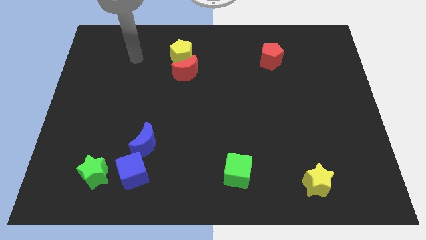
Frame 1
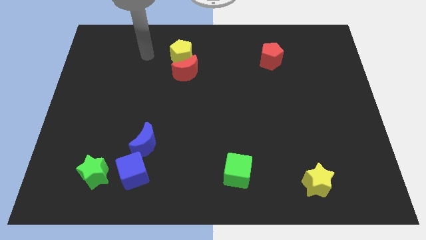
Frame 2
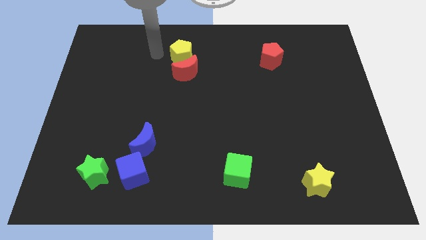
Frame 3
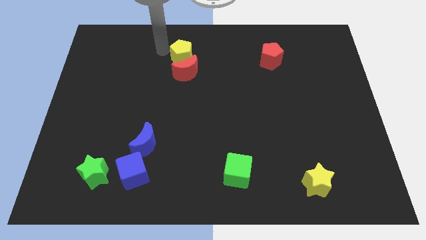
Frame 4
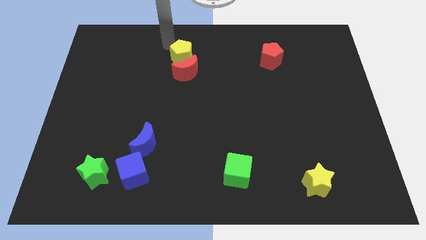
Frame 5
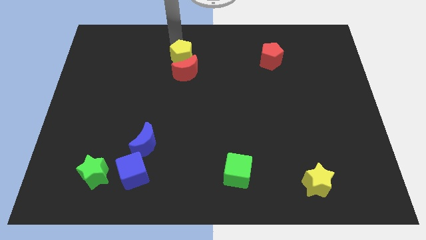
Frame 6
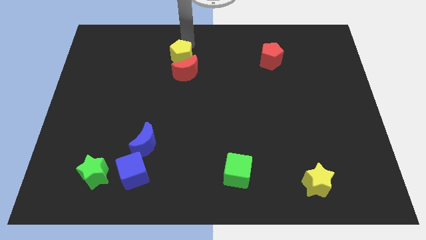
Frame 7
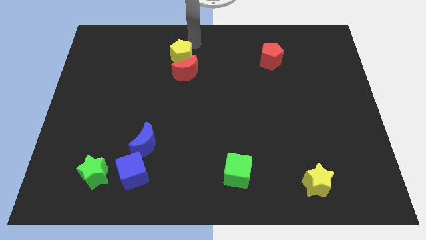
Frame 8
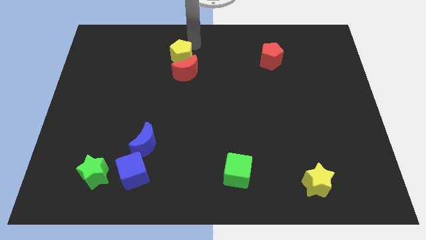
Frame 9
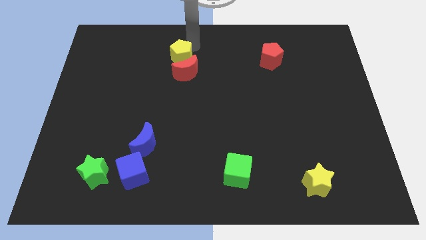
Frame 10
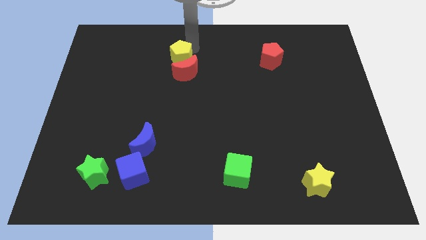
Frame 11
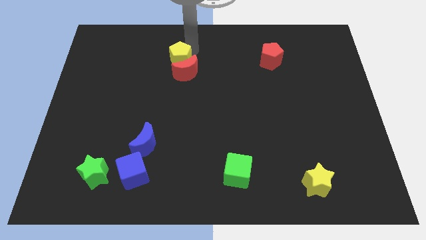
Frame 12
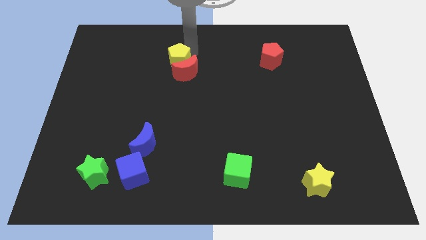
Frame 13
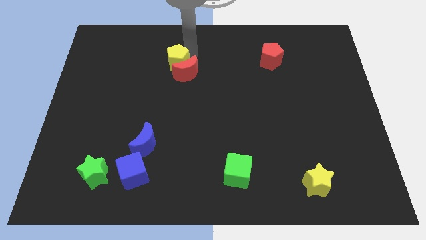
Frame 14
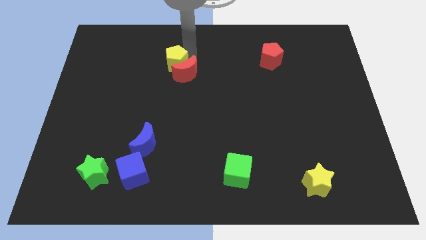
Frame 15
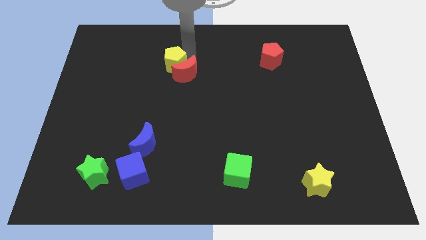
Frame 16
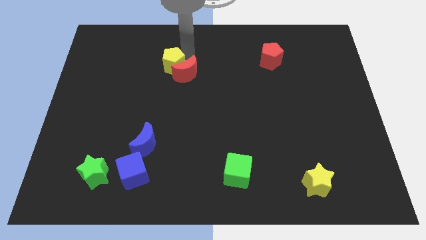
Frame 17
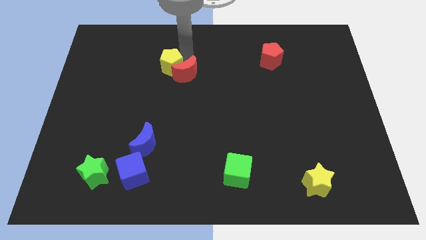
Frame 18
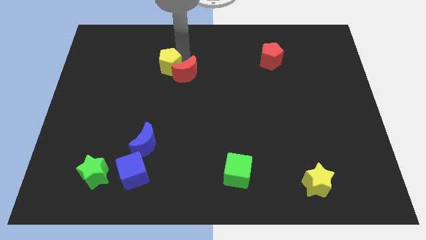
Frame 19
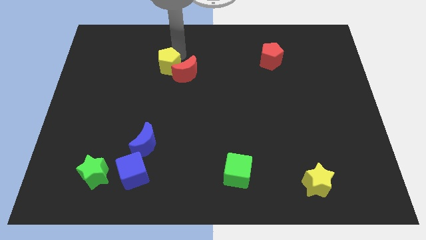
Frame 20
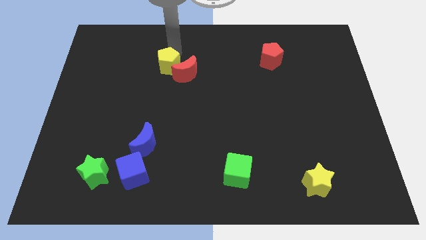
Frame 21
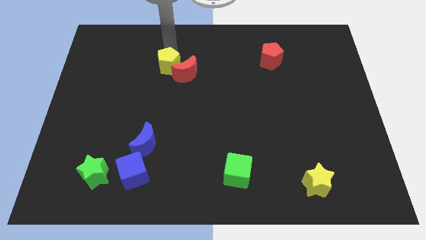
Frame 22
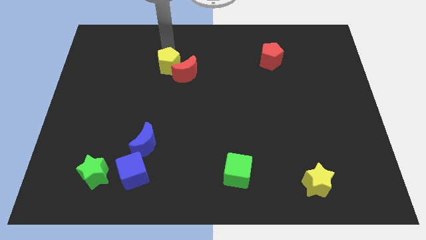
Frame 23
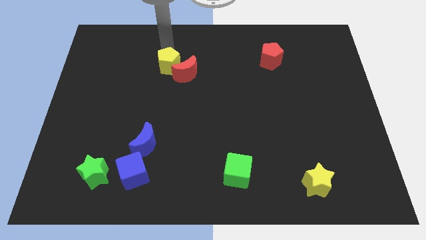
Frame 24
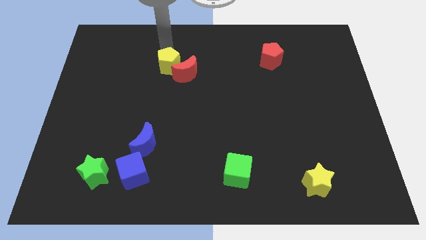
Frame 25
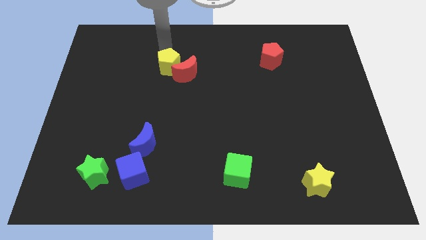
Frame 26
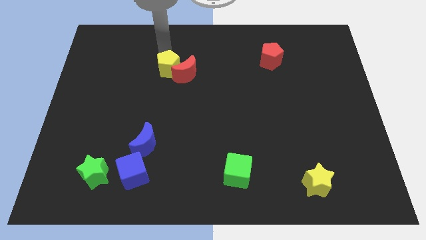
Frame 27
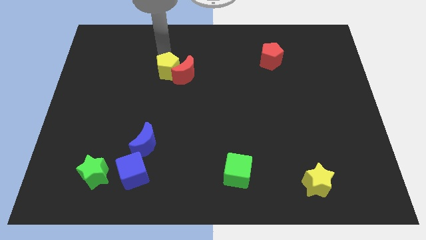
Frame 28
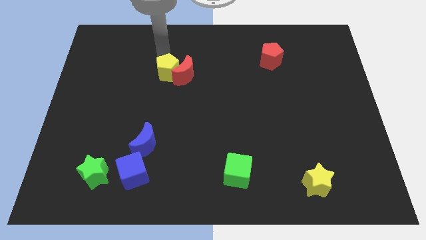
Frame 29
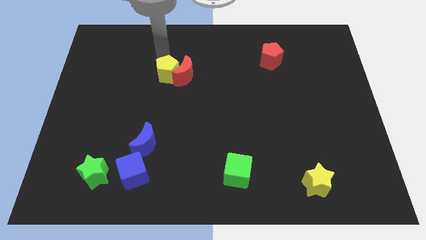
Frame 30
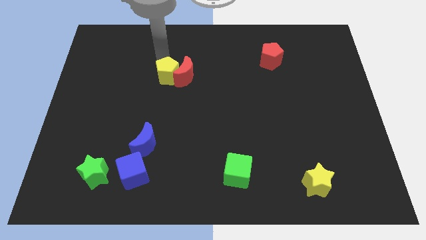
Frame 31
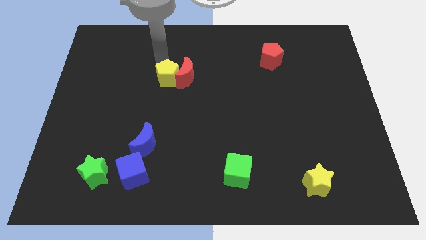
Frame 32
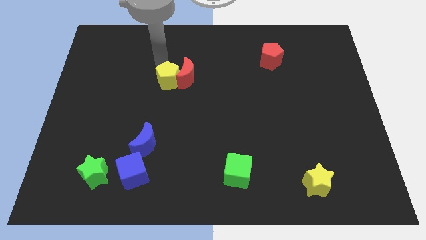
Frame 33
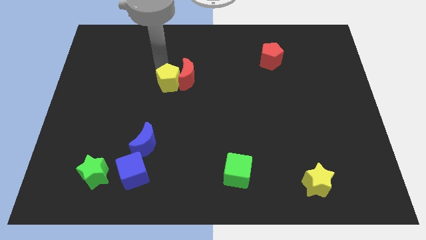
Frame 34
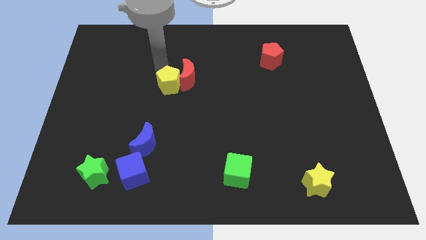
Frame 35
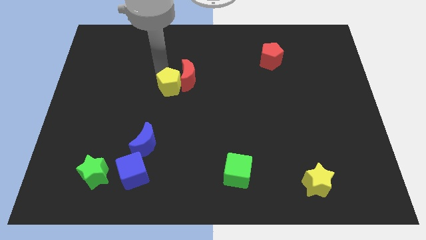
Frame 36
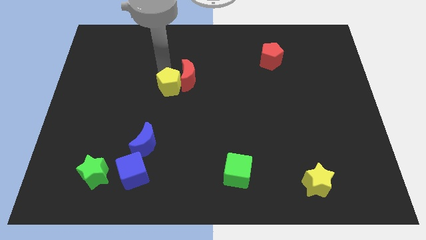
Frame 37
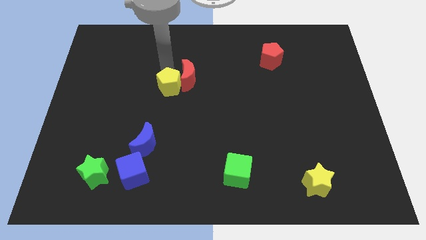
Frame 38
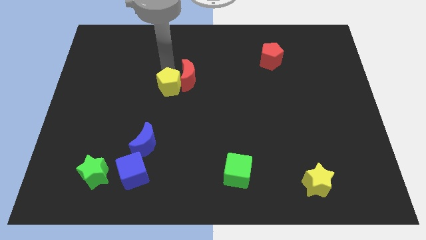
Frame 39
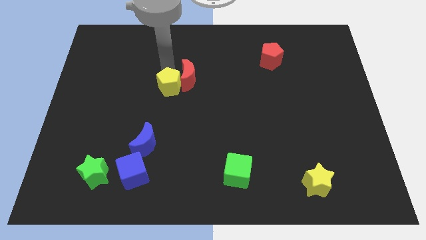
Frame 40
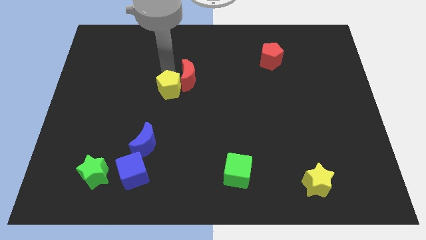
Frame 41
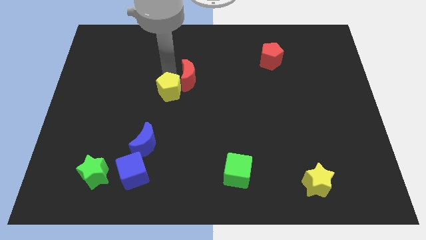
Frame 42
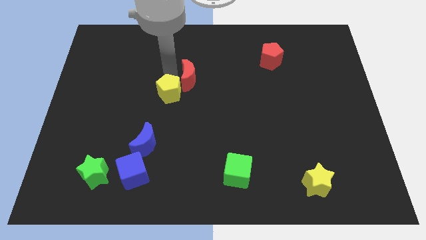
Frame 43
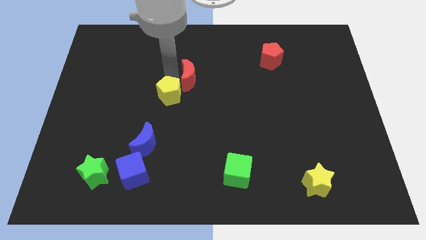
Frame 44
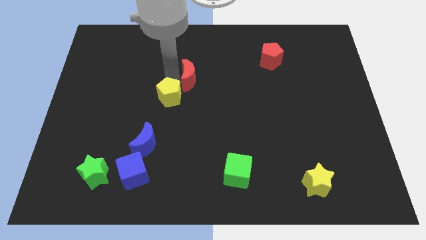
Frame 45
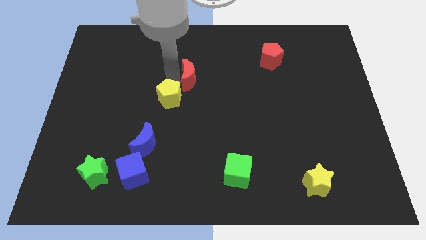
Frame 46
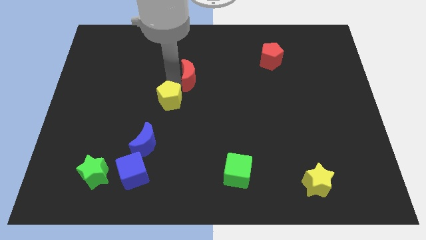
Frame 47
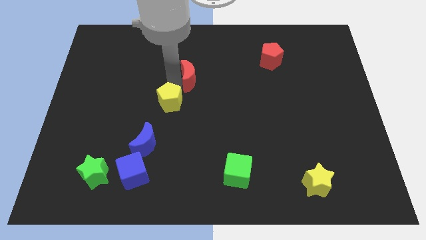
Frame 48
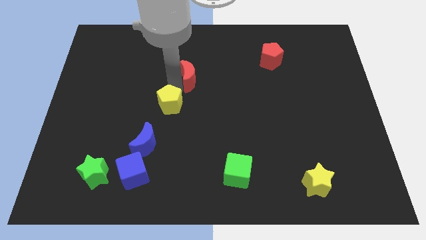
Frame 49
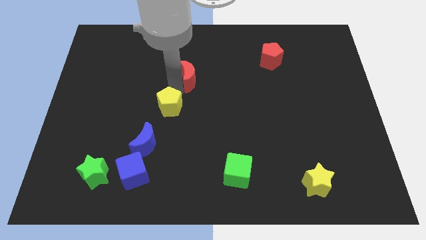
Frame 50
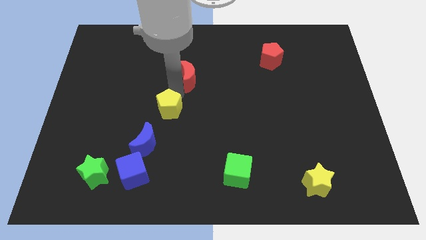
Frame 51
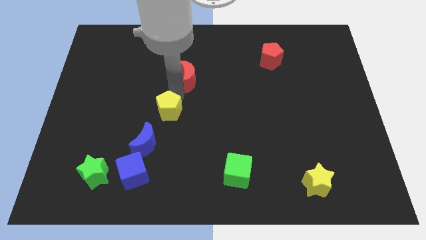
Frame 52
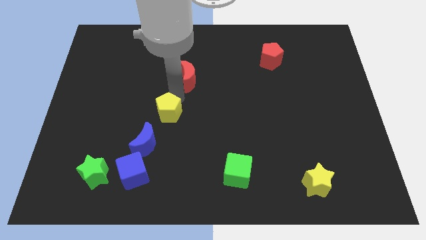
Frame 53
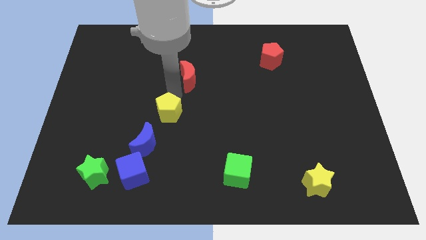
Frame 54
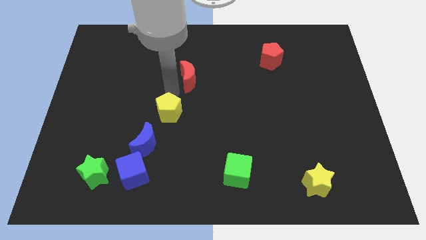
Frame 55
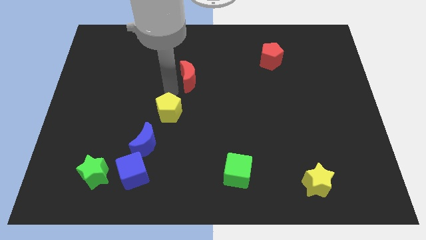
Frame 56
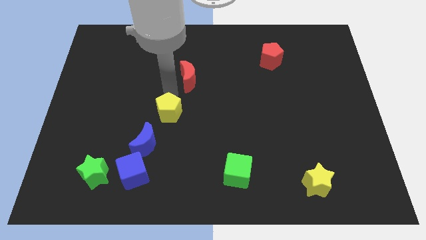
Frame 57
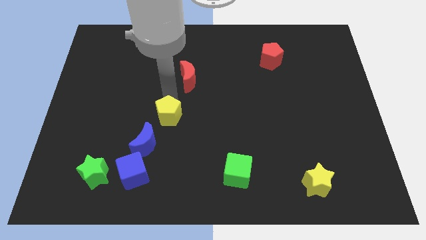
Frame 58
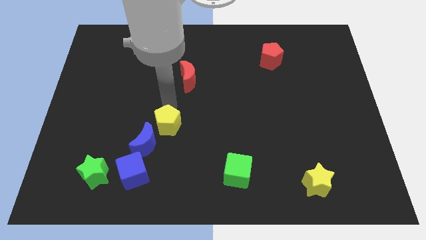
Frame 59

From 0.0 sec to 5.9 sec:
push the yellow pentagon downwards

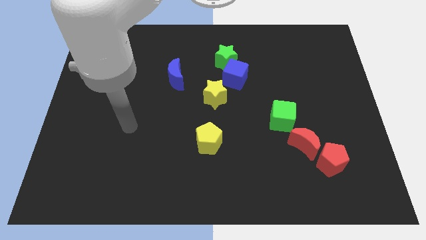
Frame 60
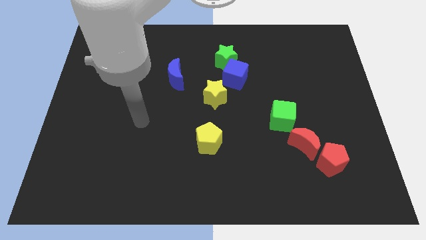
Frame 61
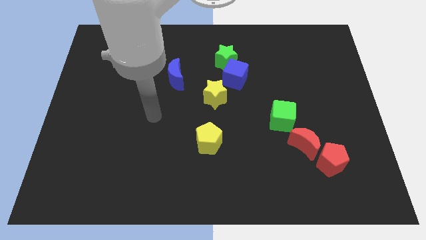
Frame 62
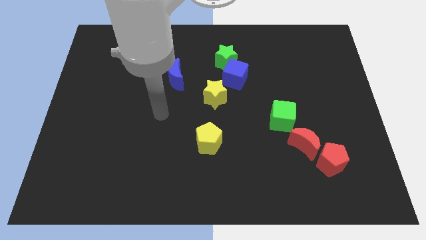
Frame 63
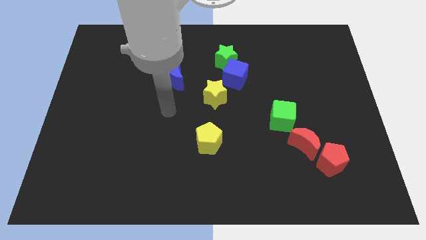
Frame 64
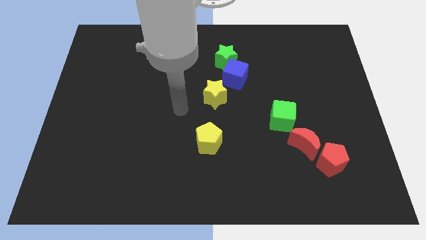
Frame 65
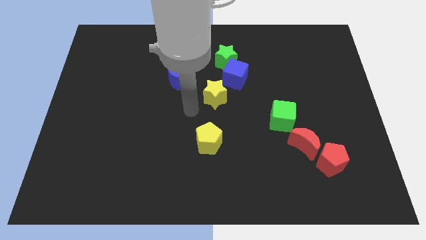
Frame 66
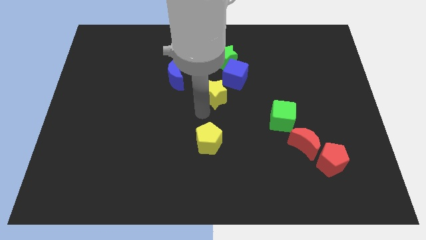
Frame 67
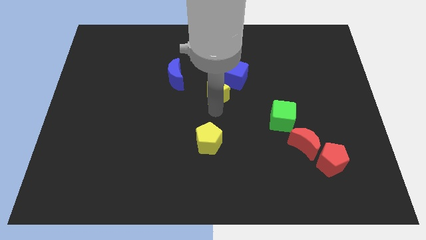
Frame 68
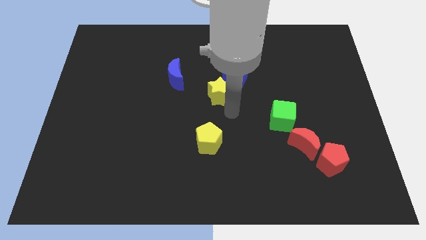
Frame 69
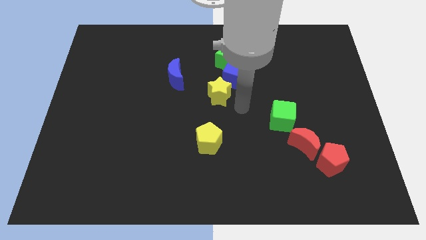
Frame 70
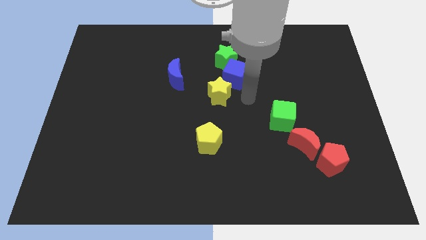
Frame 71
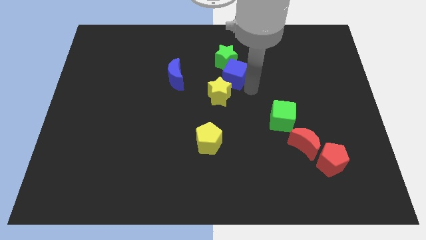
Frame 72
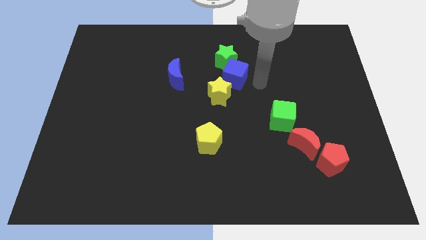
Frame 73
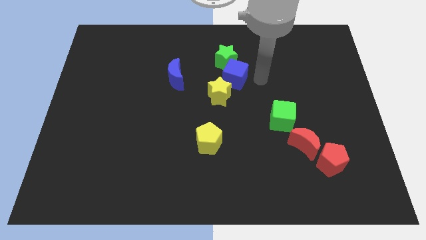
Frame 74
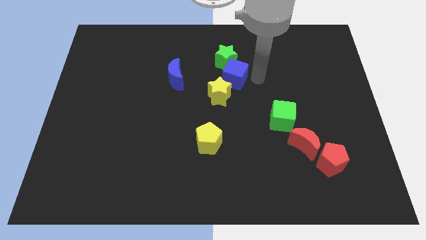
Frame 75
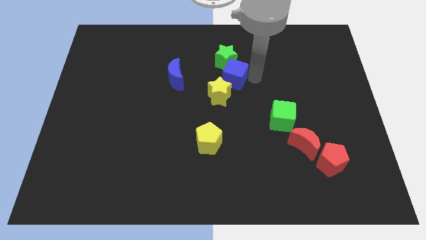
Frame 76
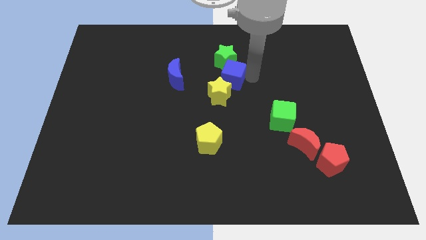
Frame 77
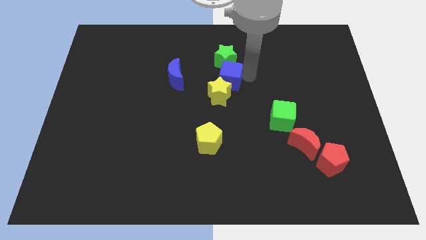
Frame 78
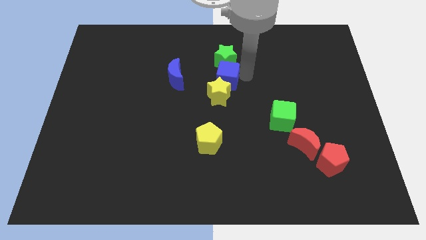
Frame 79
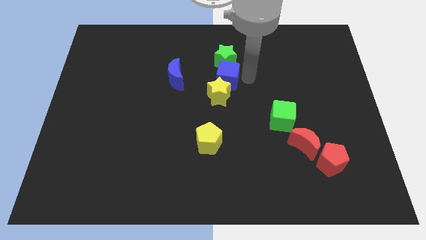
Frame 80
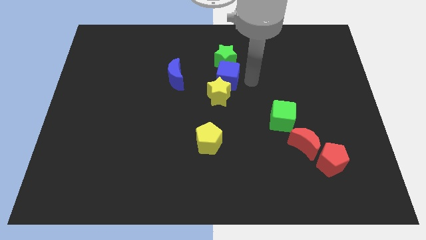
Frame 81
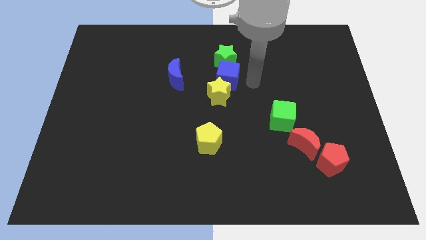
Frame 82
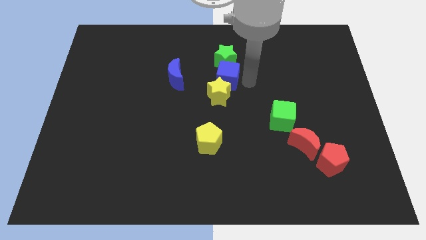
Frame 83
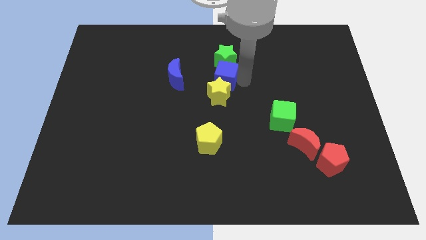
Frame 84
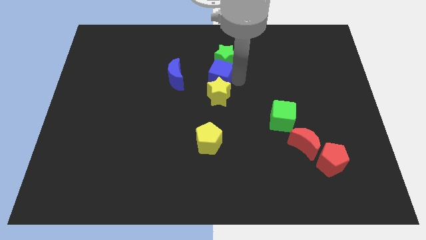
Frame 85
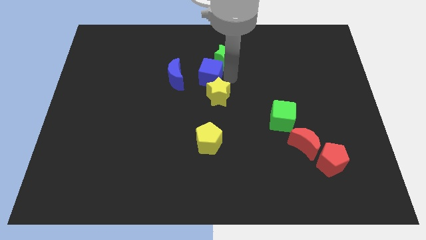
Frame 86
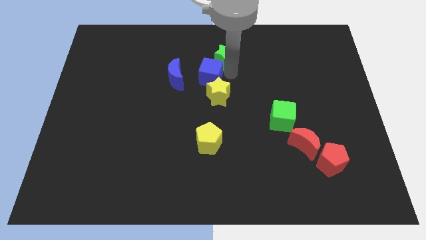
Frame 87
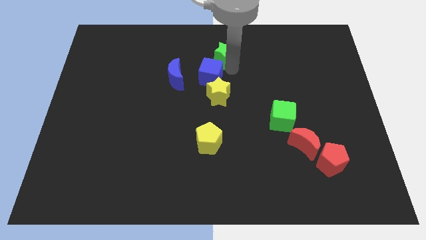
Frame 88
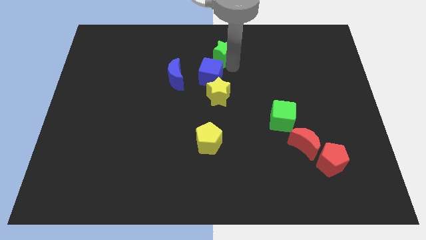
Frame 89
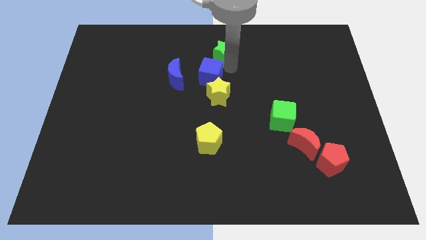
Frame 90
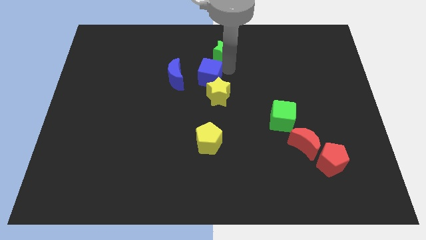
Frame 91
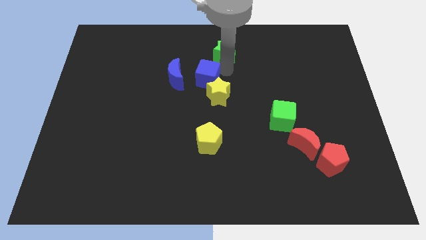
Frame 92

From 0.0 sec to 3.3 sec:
move the blue cube slightly to the left
